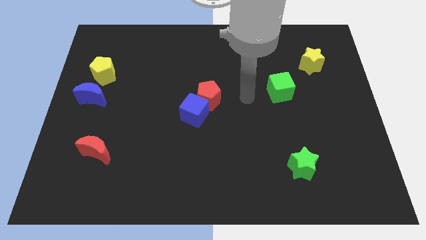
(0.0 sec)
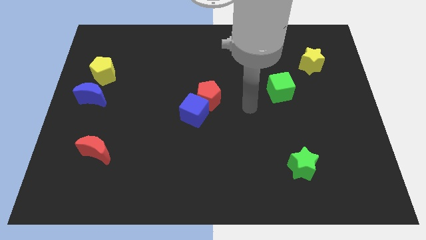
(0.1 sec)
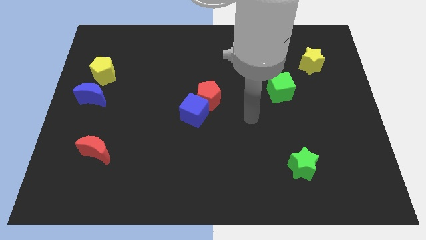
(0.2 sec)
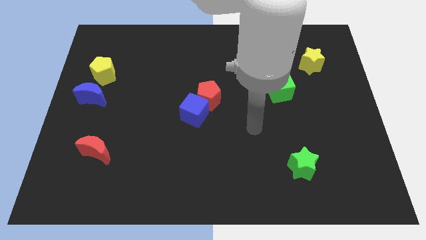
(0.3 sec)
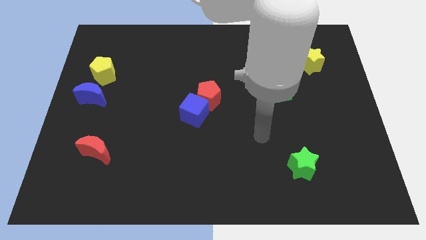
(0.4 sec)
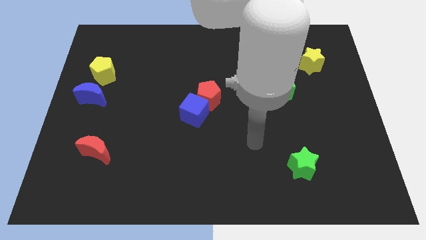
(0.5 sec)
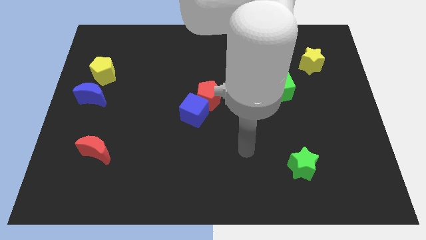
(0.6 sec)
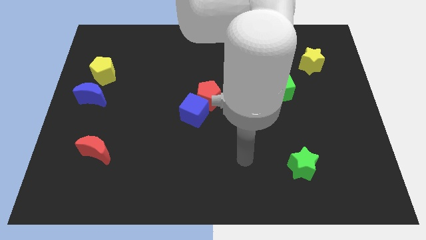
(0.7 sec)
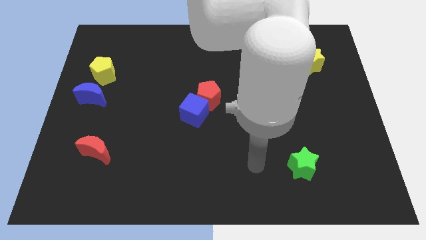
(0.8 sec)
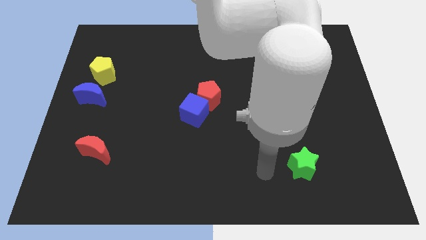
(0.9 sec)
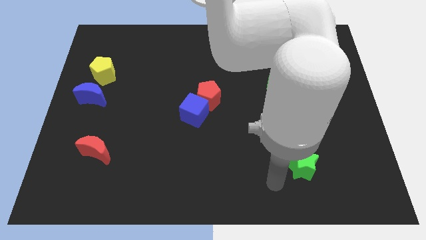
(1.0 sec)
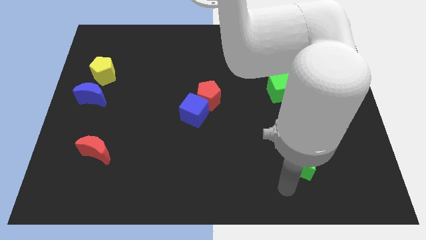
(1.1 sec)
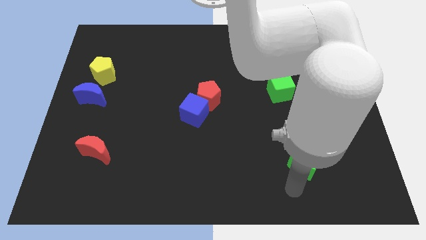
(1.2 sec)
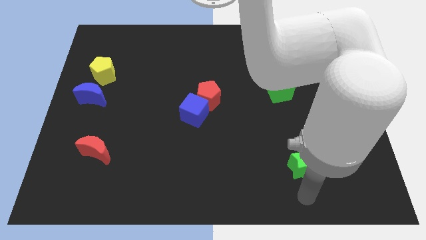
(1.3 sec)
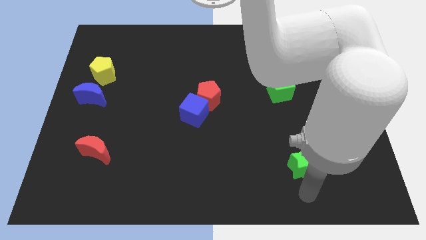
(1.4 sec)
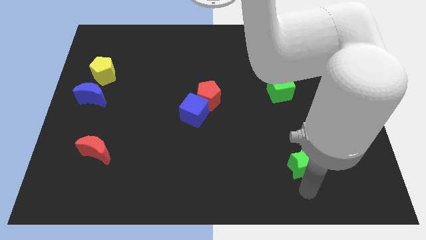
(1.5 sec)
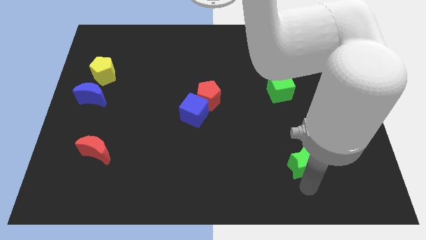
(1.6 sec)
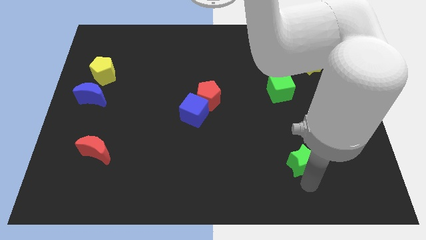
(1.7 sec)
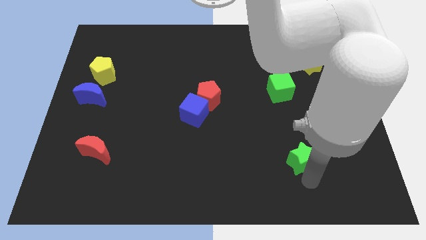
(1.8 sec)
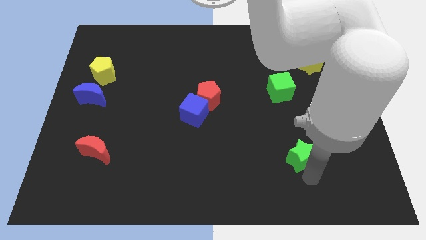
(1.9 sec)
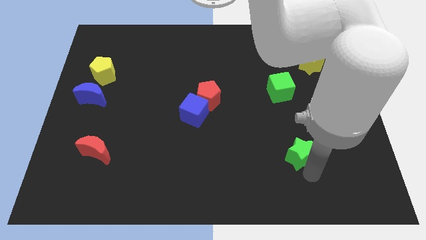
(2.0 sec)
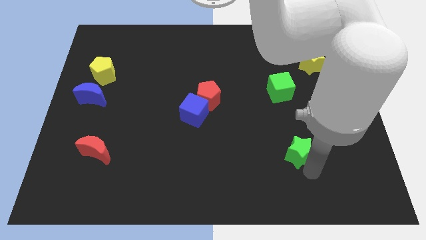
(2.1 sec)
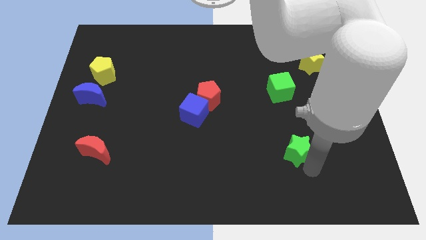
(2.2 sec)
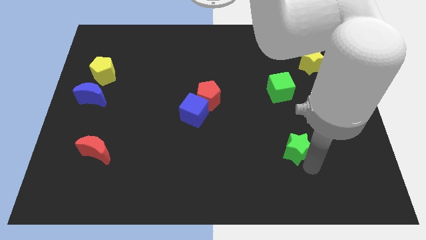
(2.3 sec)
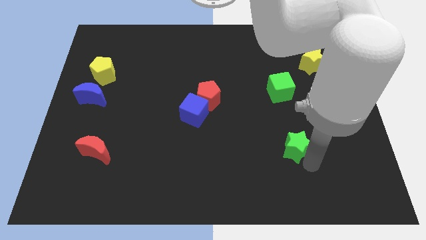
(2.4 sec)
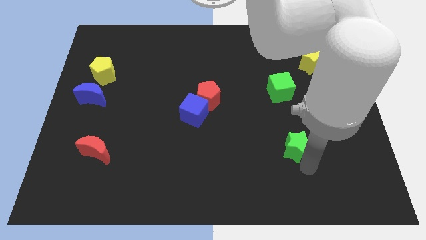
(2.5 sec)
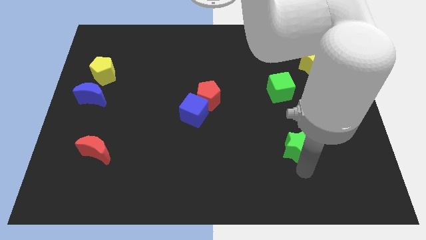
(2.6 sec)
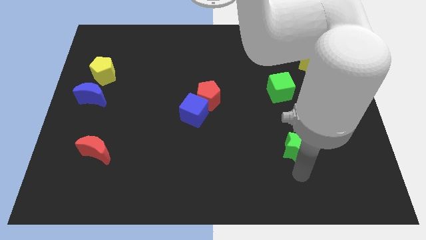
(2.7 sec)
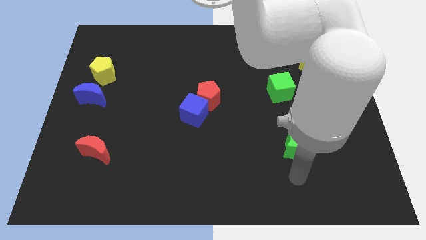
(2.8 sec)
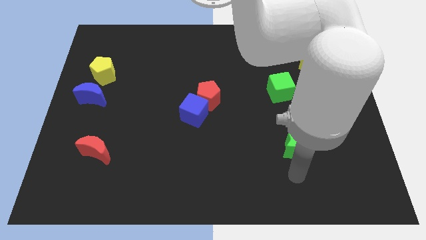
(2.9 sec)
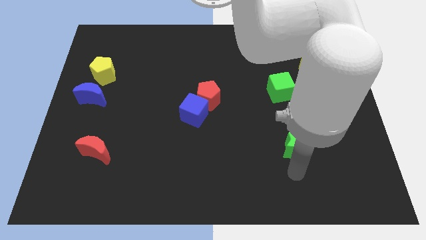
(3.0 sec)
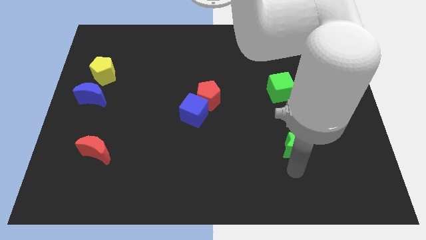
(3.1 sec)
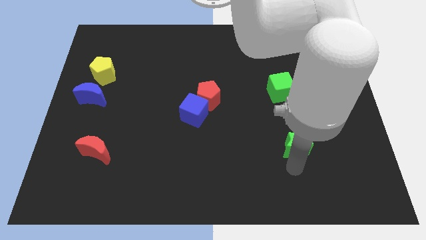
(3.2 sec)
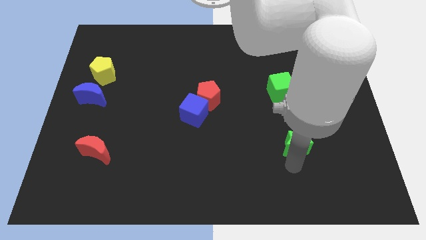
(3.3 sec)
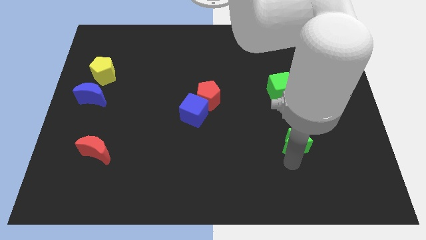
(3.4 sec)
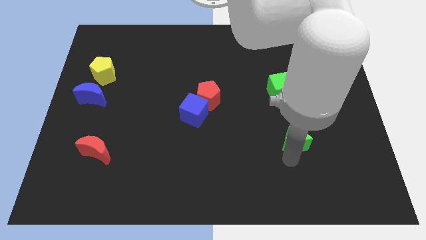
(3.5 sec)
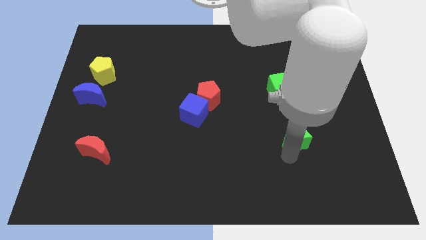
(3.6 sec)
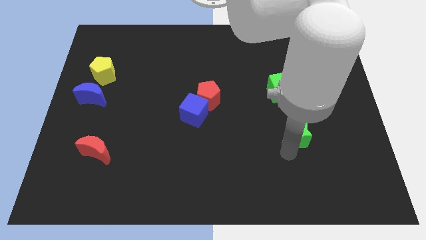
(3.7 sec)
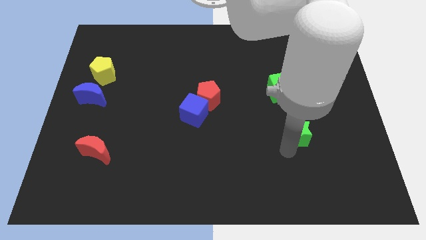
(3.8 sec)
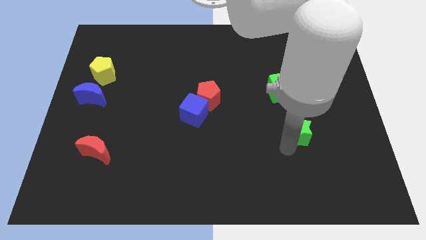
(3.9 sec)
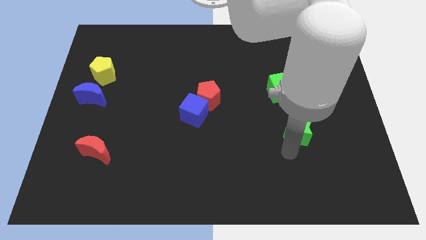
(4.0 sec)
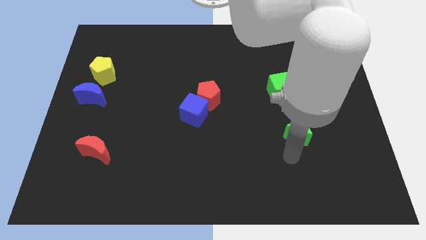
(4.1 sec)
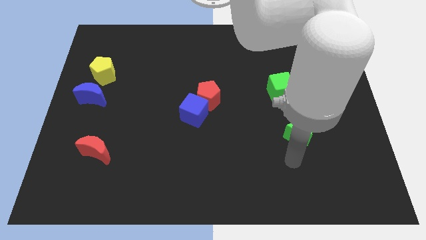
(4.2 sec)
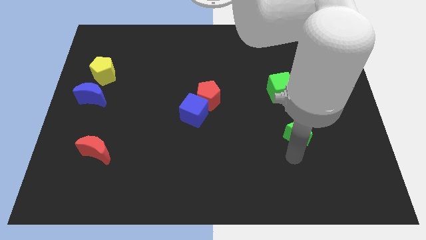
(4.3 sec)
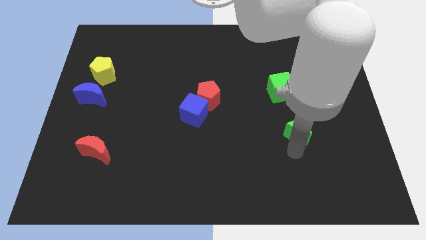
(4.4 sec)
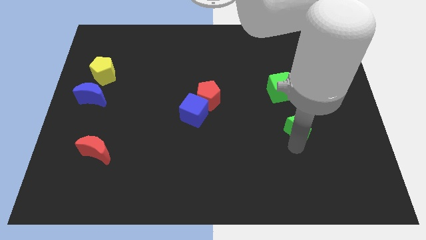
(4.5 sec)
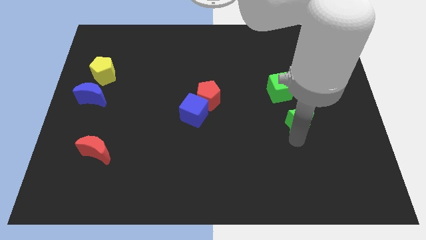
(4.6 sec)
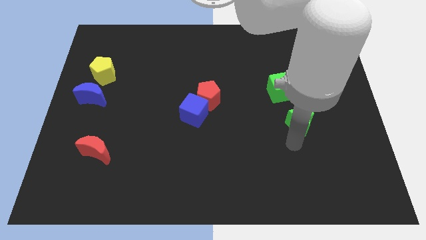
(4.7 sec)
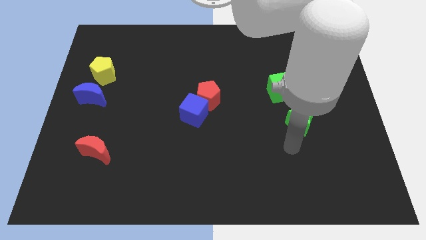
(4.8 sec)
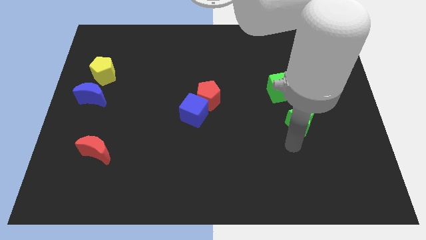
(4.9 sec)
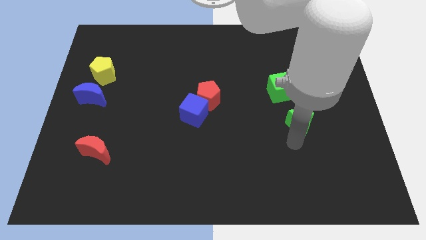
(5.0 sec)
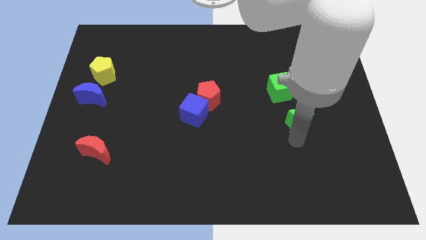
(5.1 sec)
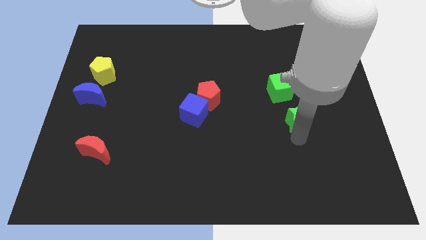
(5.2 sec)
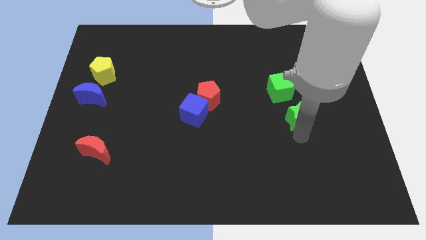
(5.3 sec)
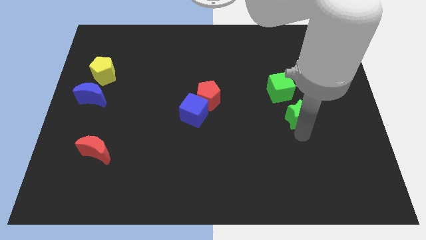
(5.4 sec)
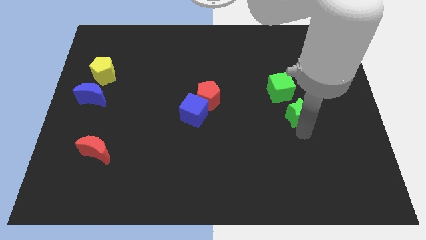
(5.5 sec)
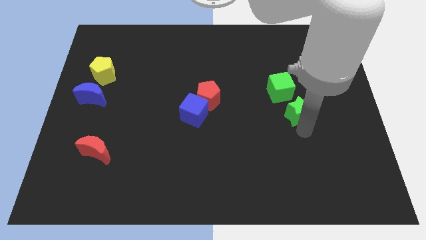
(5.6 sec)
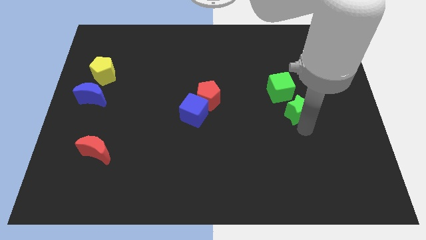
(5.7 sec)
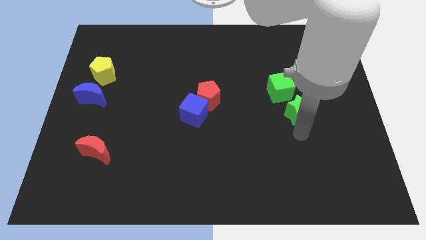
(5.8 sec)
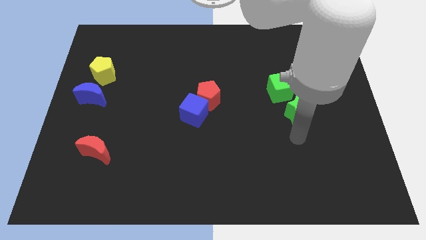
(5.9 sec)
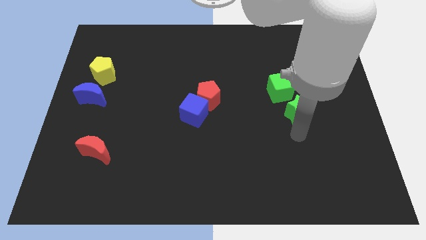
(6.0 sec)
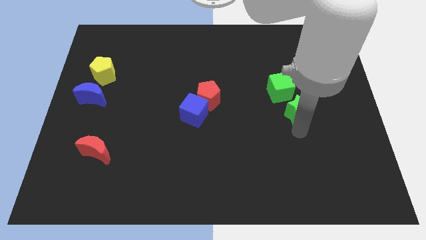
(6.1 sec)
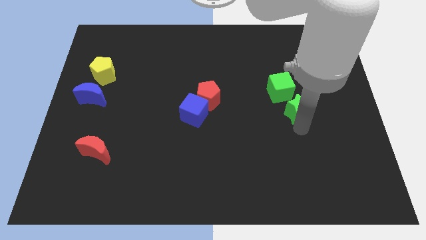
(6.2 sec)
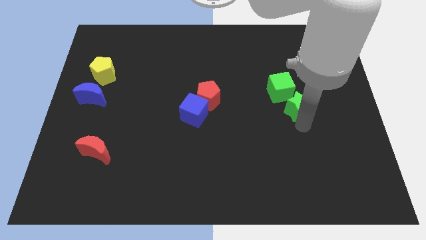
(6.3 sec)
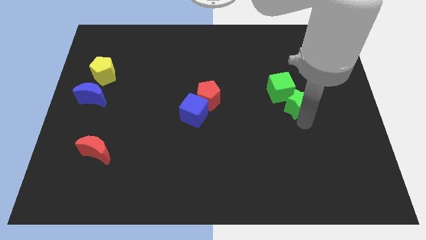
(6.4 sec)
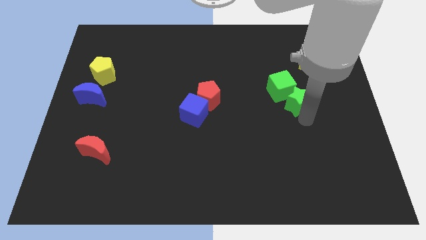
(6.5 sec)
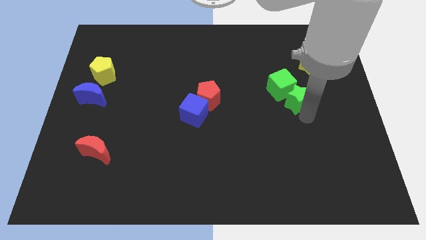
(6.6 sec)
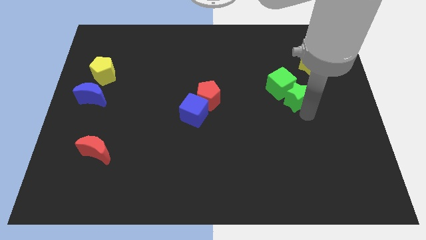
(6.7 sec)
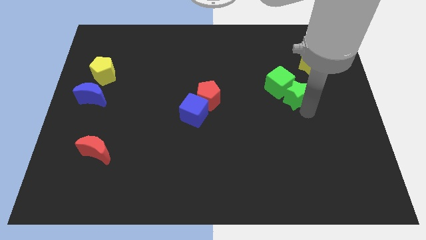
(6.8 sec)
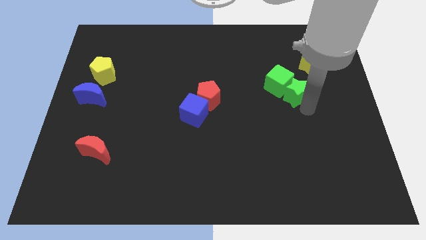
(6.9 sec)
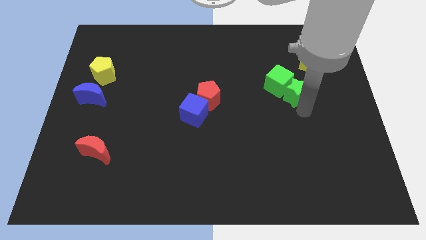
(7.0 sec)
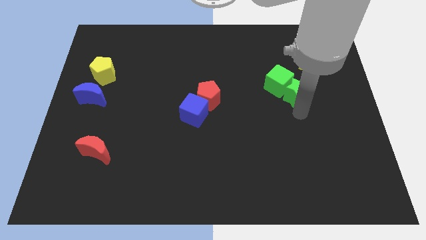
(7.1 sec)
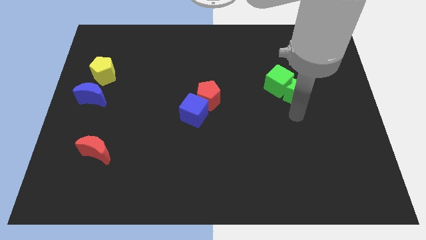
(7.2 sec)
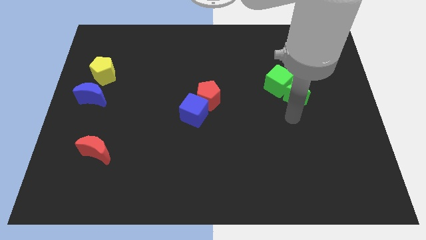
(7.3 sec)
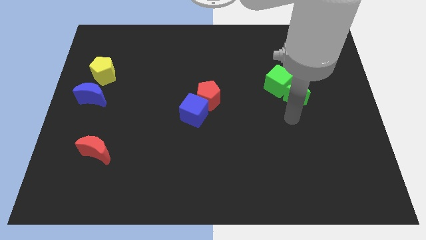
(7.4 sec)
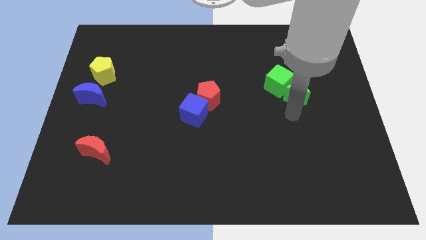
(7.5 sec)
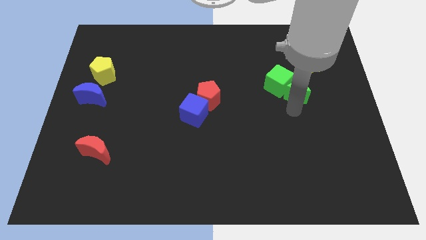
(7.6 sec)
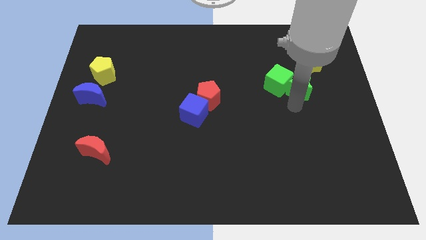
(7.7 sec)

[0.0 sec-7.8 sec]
push the green star up
